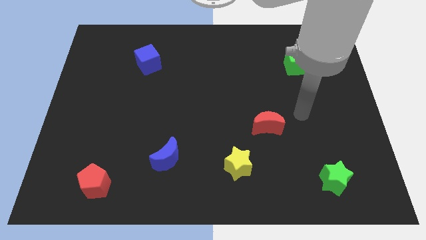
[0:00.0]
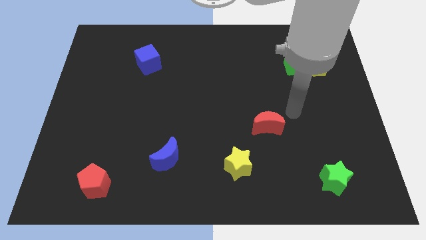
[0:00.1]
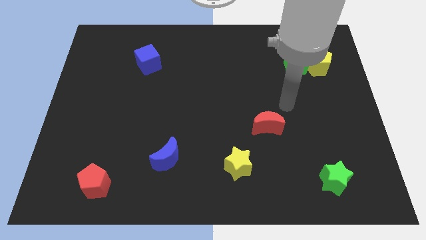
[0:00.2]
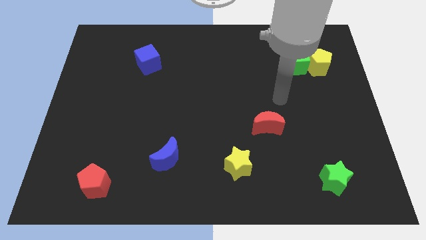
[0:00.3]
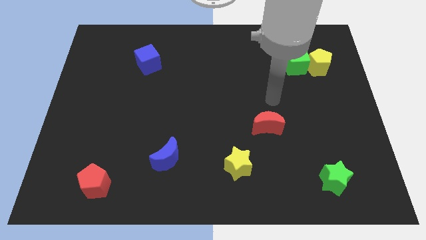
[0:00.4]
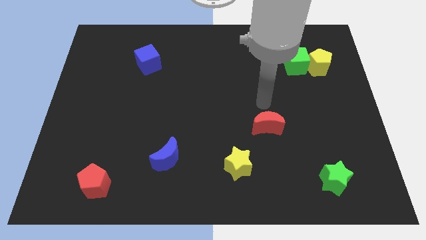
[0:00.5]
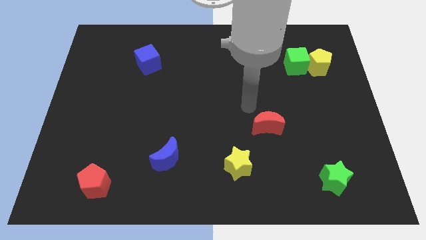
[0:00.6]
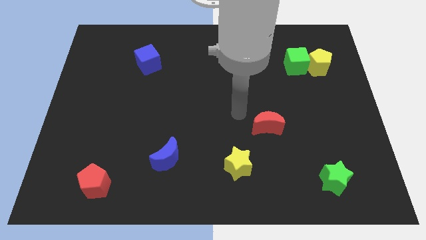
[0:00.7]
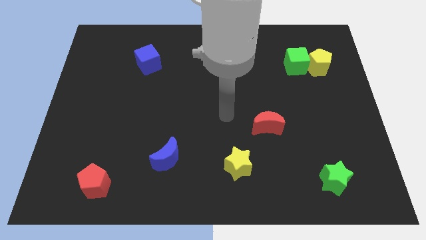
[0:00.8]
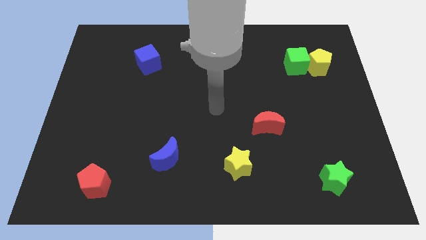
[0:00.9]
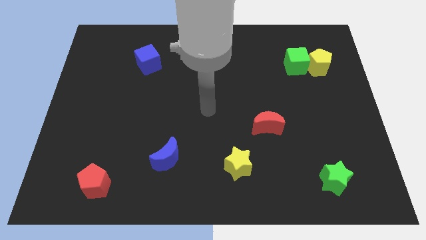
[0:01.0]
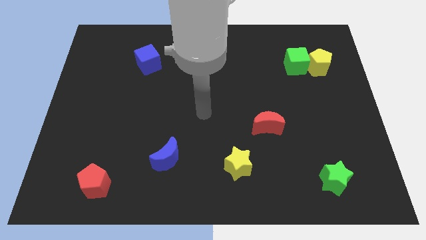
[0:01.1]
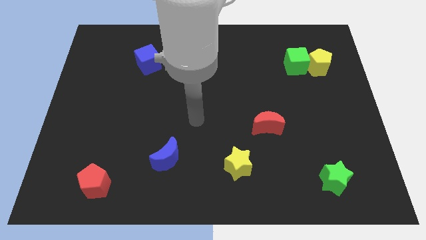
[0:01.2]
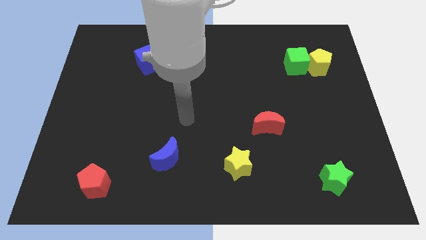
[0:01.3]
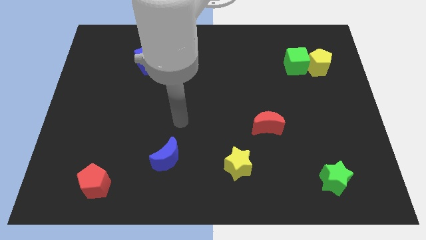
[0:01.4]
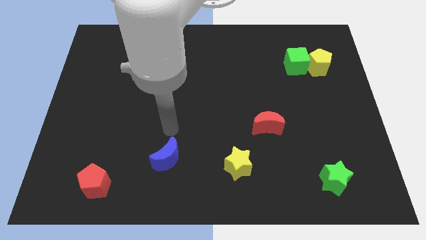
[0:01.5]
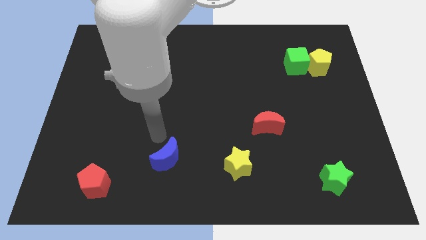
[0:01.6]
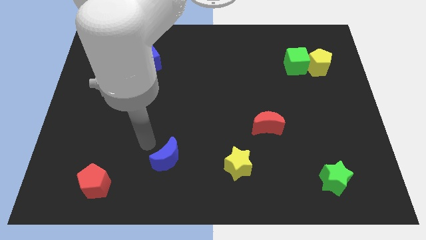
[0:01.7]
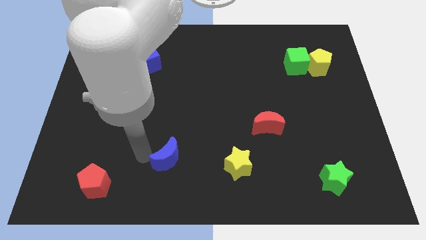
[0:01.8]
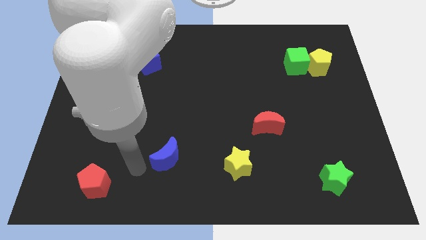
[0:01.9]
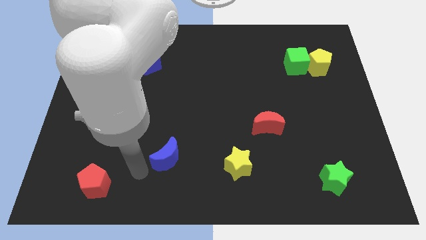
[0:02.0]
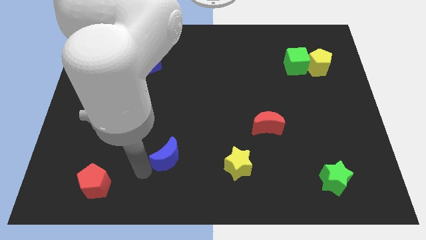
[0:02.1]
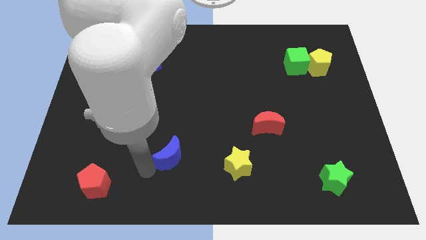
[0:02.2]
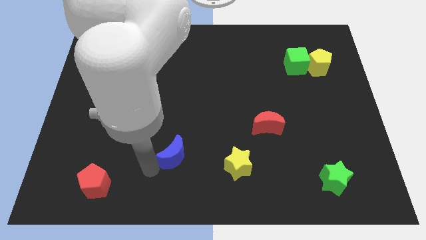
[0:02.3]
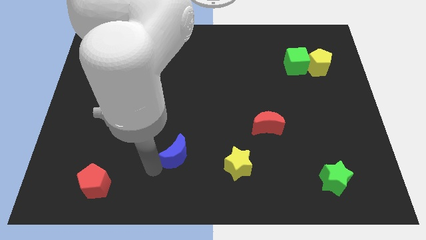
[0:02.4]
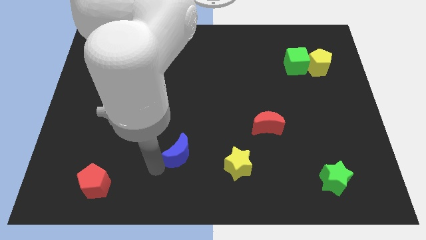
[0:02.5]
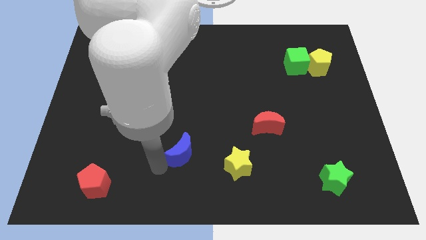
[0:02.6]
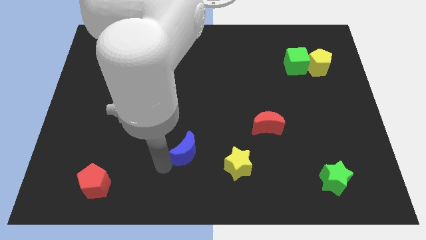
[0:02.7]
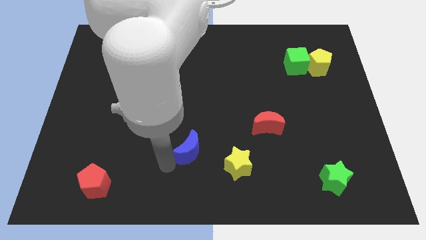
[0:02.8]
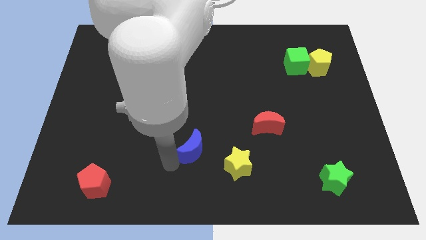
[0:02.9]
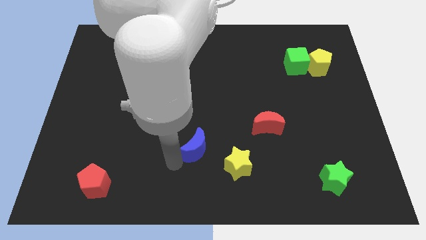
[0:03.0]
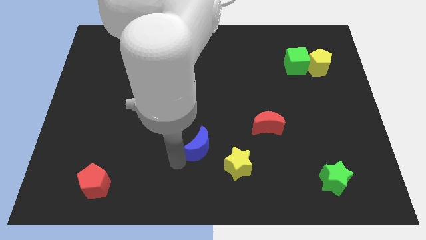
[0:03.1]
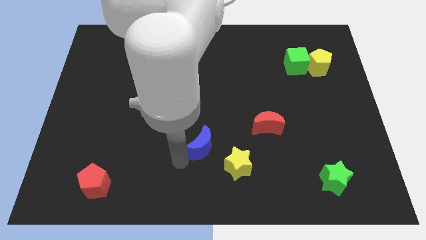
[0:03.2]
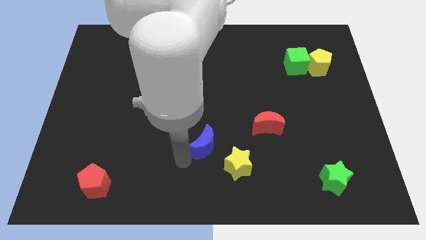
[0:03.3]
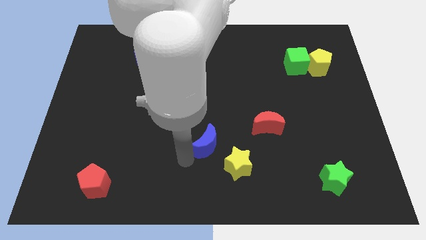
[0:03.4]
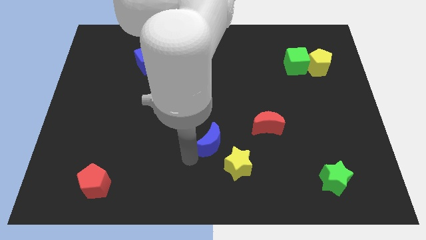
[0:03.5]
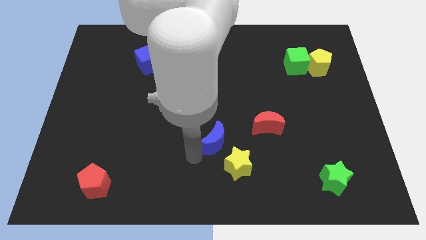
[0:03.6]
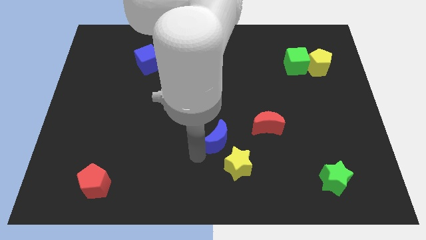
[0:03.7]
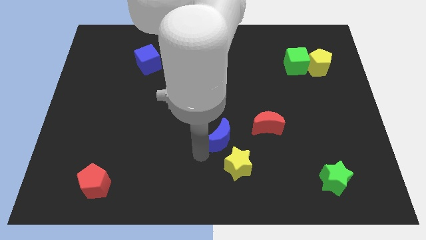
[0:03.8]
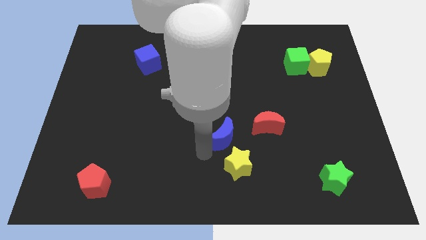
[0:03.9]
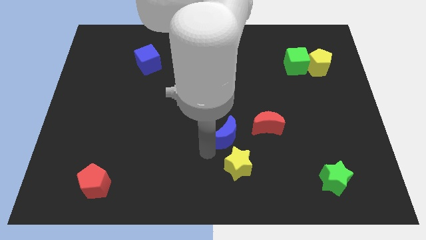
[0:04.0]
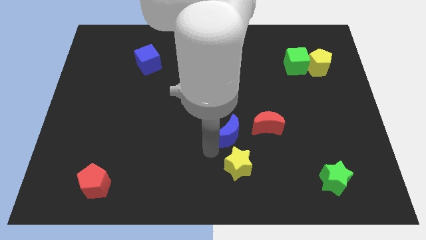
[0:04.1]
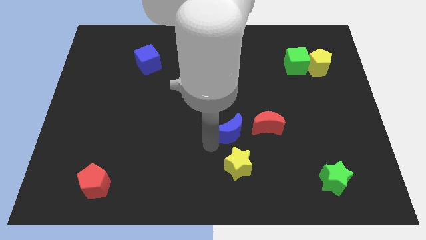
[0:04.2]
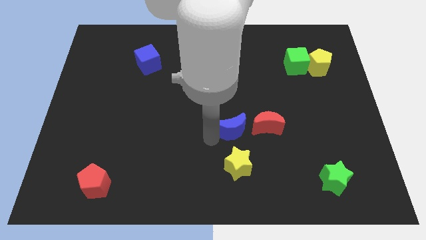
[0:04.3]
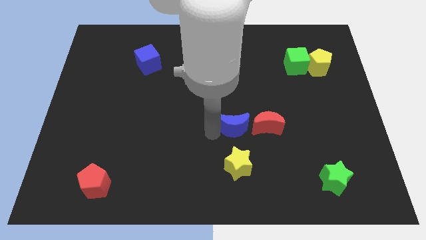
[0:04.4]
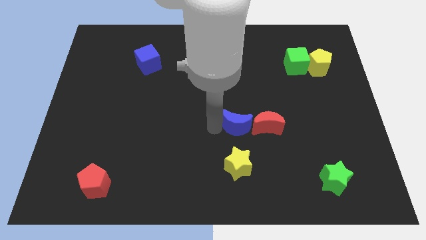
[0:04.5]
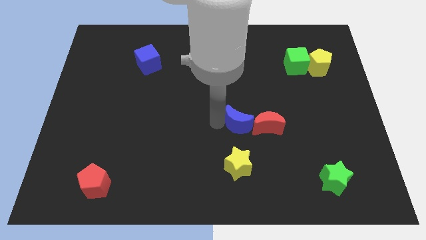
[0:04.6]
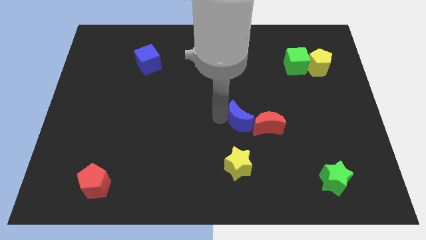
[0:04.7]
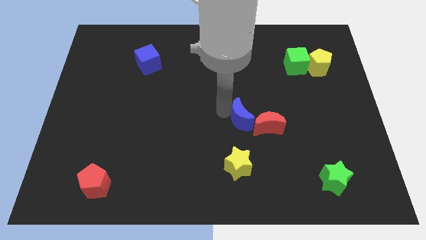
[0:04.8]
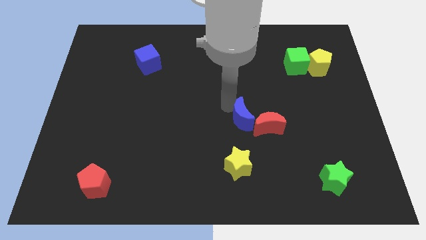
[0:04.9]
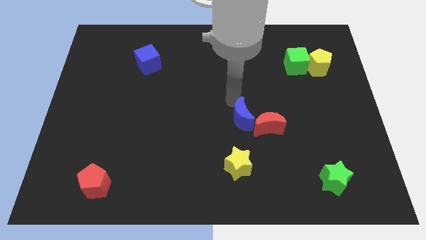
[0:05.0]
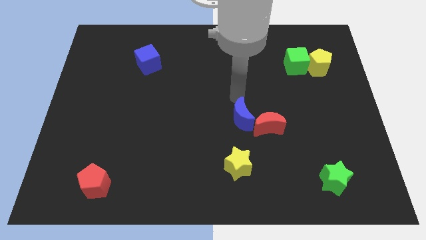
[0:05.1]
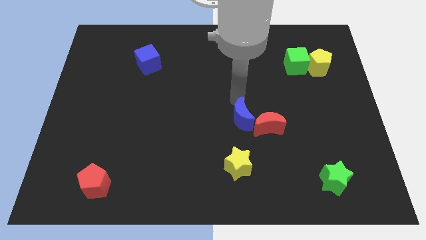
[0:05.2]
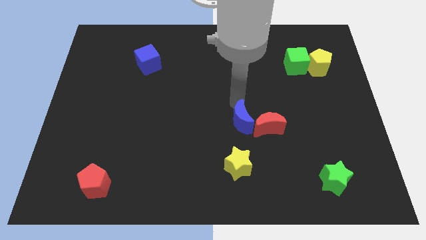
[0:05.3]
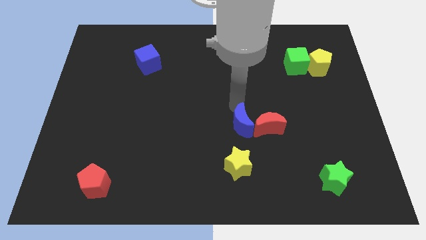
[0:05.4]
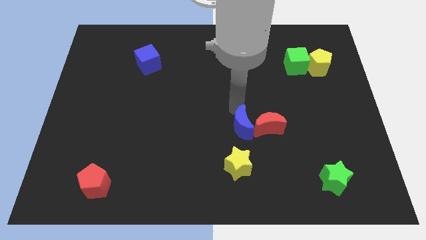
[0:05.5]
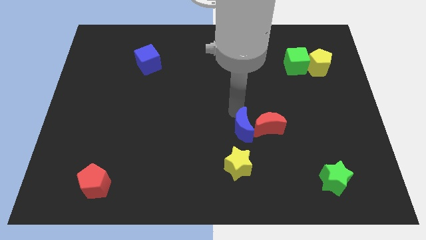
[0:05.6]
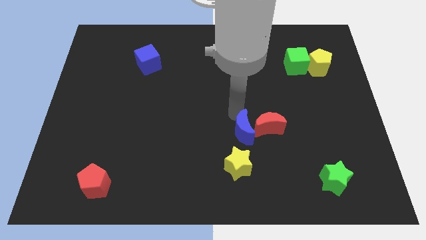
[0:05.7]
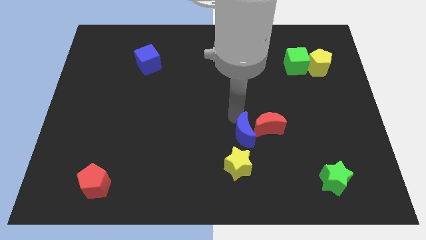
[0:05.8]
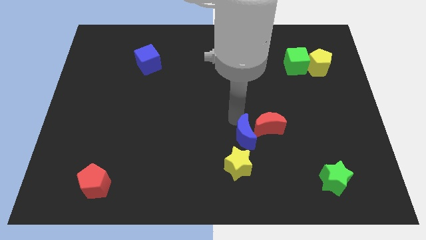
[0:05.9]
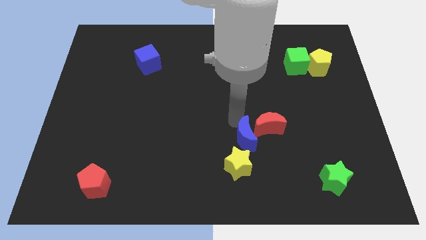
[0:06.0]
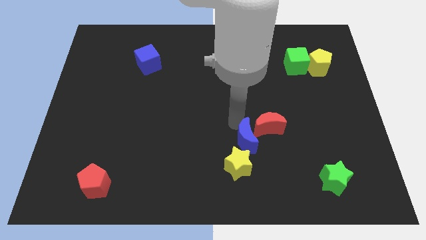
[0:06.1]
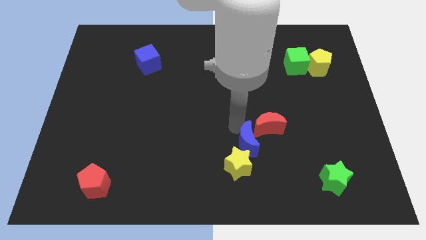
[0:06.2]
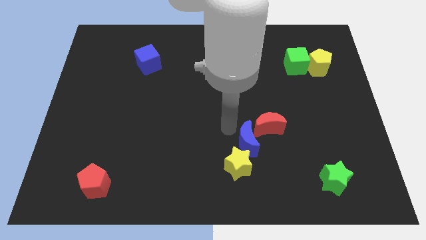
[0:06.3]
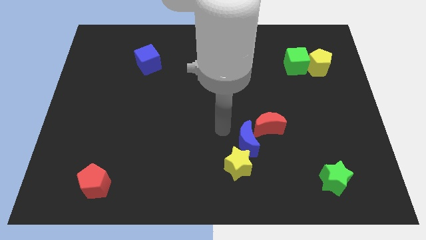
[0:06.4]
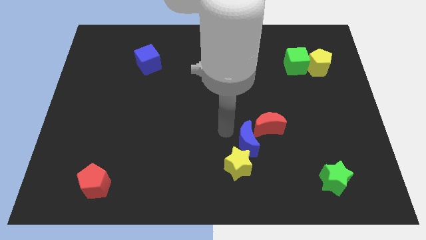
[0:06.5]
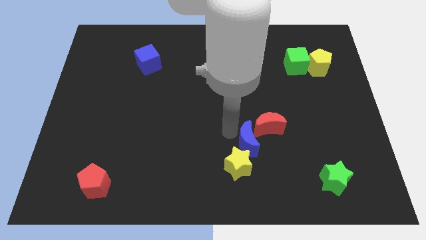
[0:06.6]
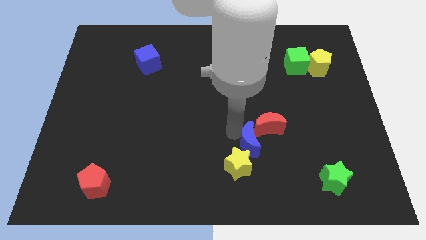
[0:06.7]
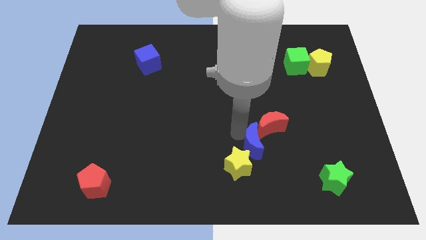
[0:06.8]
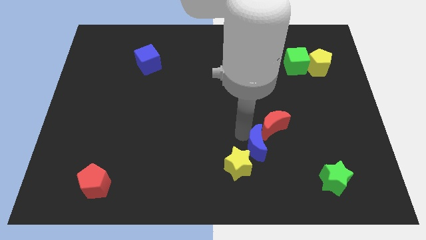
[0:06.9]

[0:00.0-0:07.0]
slide the blue moon right of the yellow star

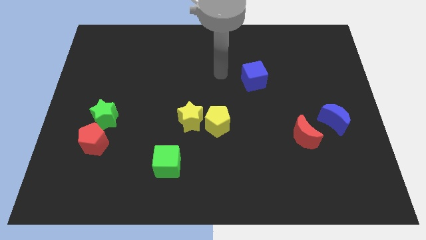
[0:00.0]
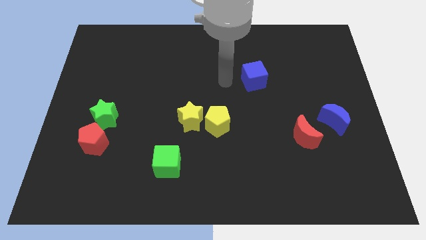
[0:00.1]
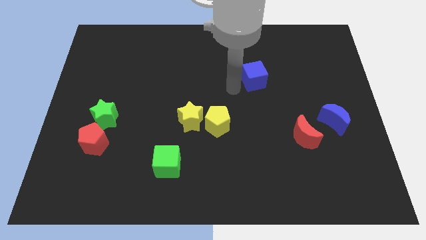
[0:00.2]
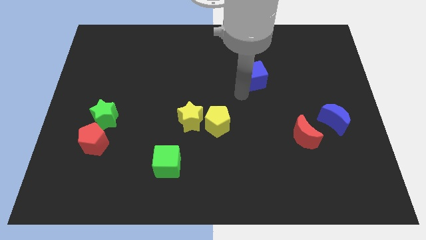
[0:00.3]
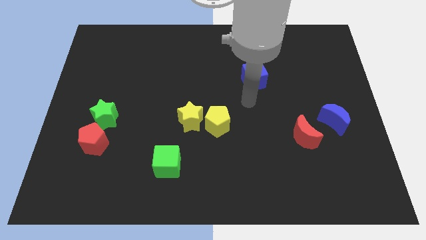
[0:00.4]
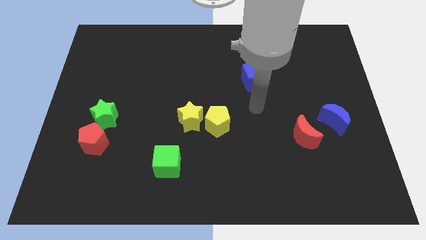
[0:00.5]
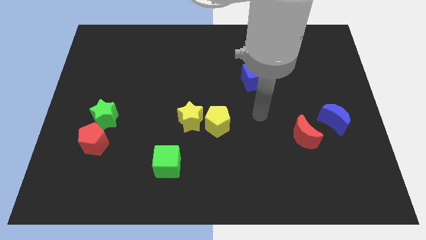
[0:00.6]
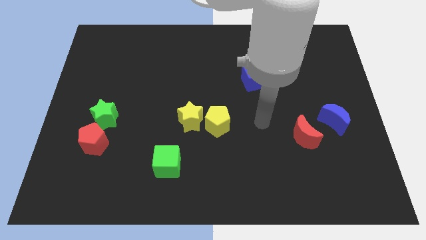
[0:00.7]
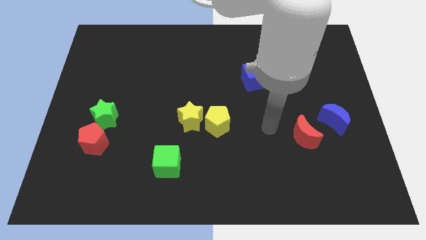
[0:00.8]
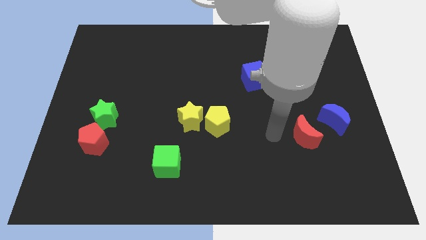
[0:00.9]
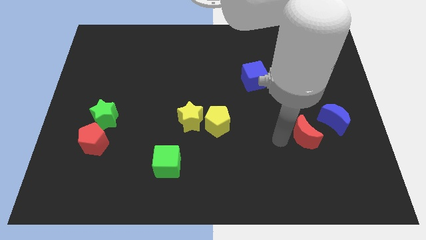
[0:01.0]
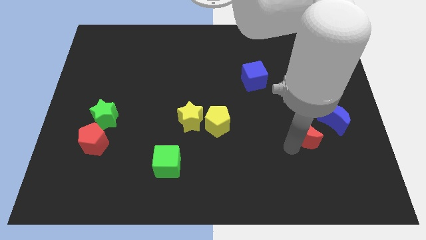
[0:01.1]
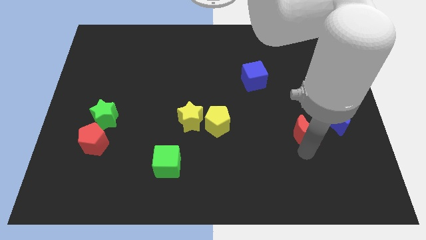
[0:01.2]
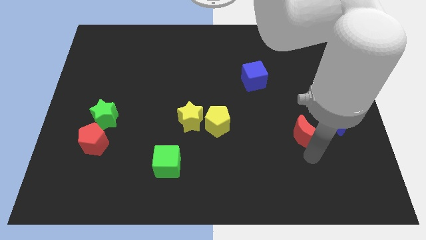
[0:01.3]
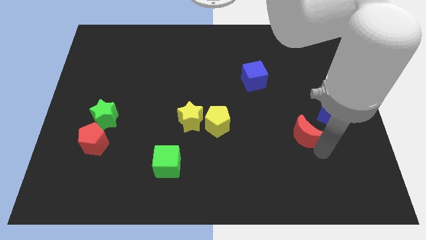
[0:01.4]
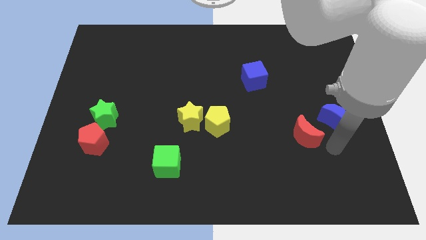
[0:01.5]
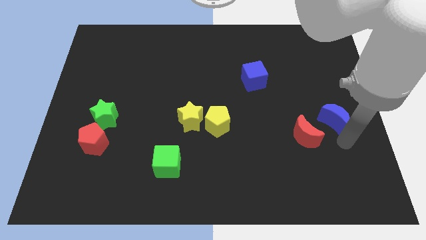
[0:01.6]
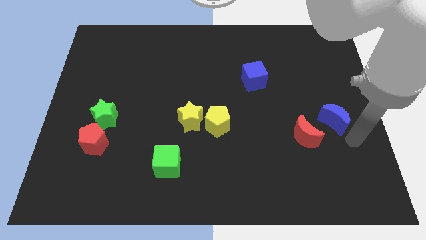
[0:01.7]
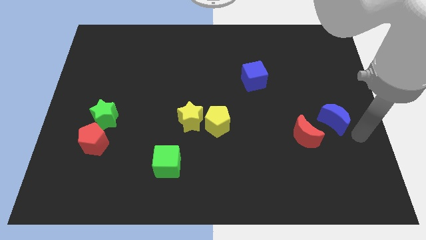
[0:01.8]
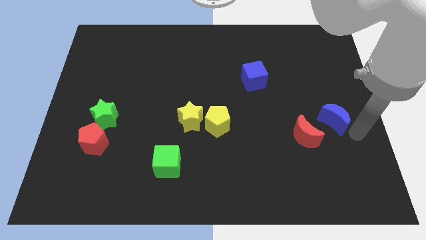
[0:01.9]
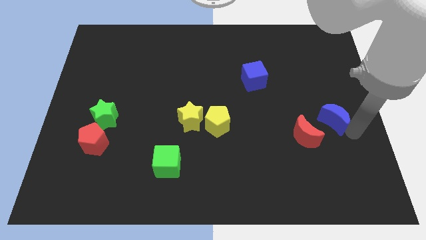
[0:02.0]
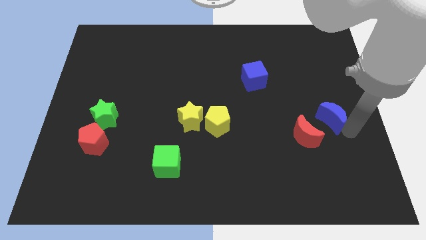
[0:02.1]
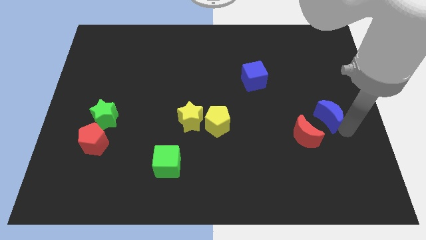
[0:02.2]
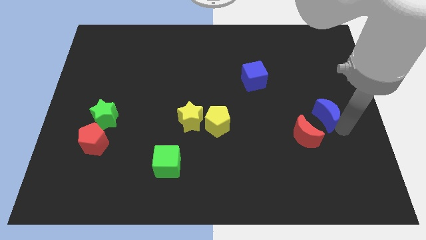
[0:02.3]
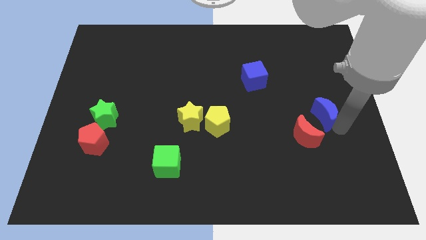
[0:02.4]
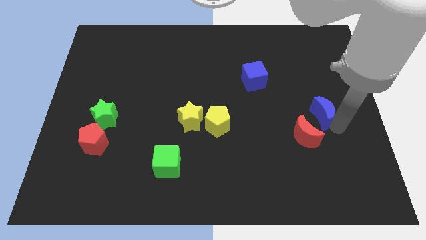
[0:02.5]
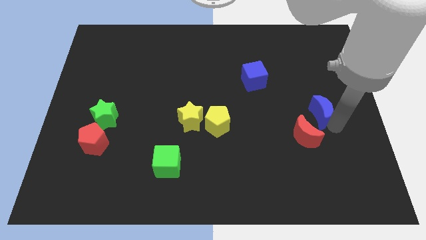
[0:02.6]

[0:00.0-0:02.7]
slide the blue moon to the top side of the red moon
